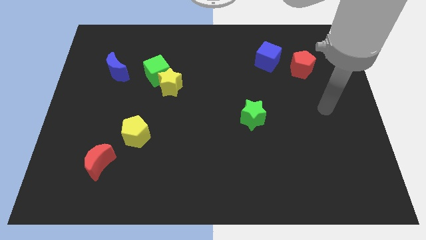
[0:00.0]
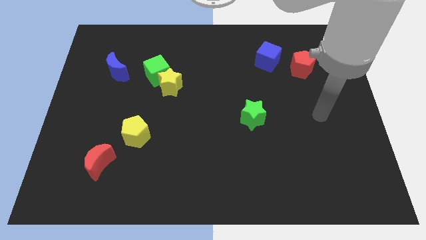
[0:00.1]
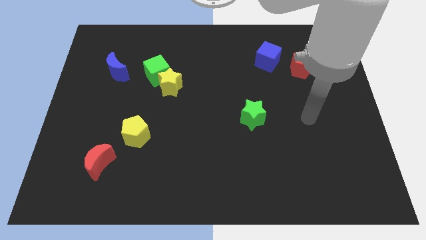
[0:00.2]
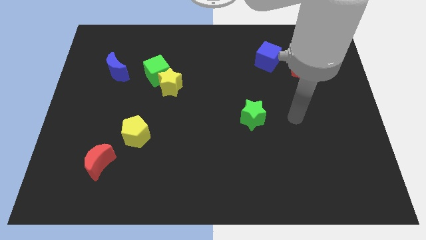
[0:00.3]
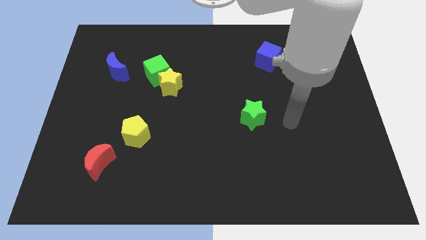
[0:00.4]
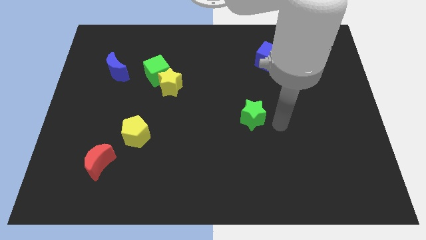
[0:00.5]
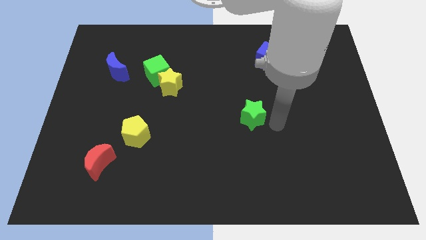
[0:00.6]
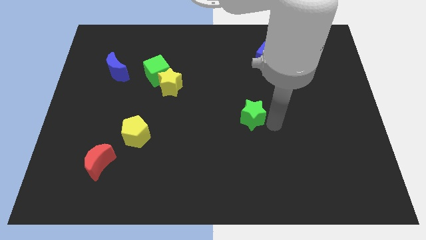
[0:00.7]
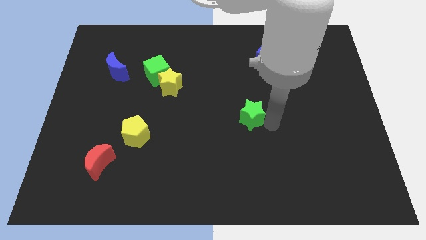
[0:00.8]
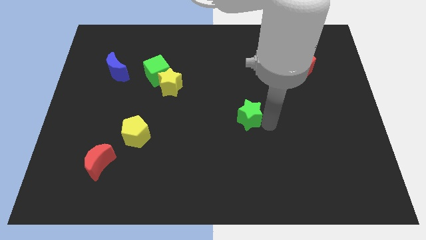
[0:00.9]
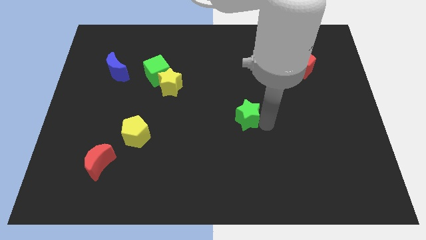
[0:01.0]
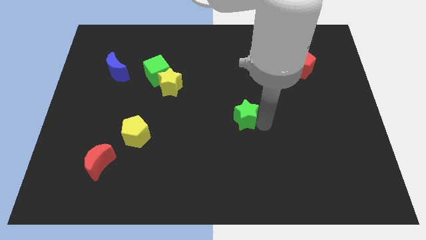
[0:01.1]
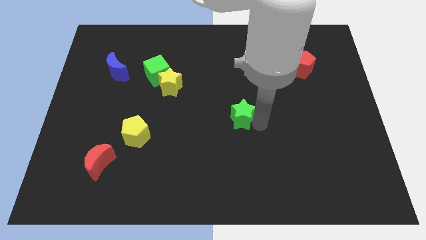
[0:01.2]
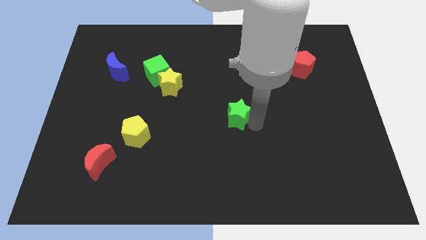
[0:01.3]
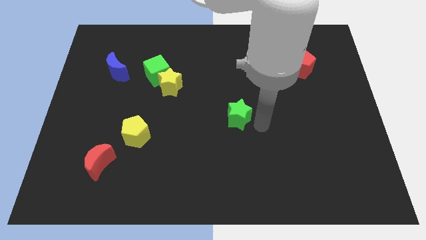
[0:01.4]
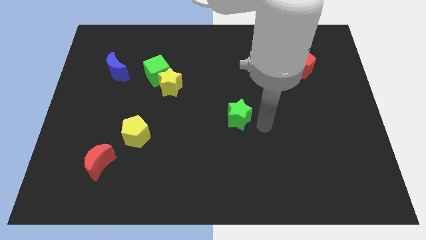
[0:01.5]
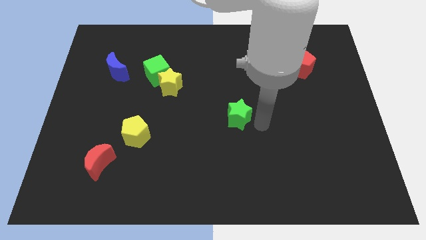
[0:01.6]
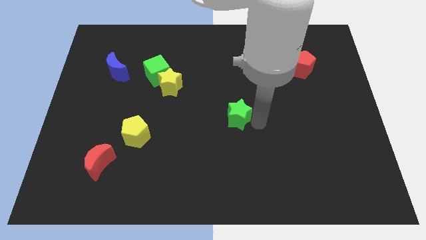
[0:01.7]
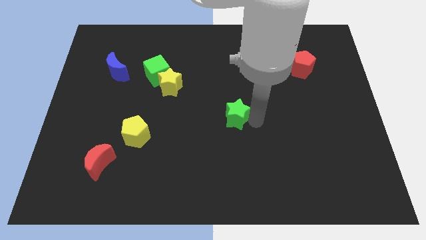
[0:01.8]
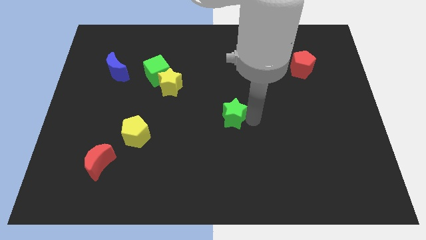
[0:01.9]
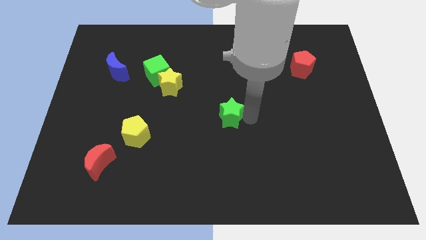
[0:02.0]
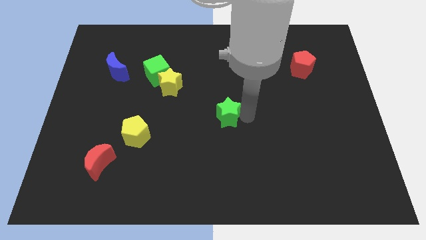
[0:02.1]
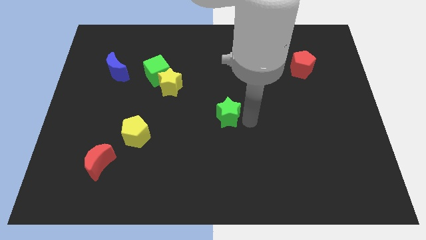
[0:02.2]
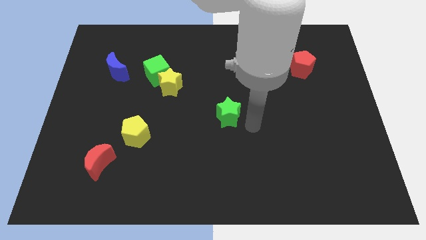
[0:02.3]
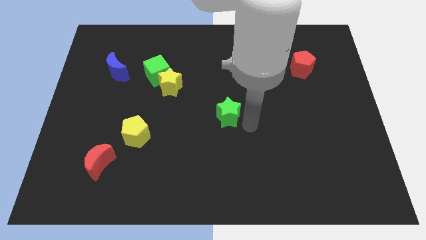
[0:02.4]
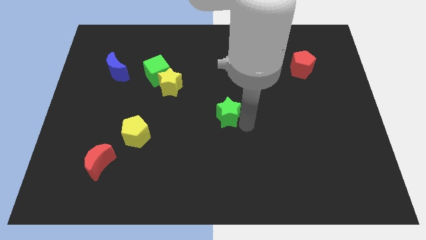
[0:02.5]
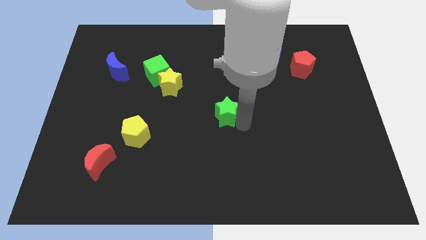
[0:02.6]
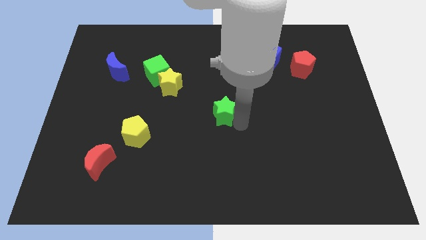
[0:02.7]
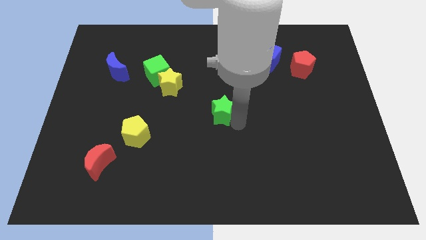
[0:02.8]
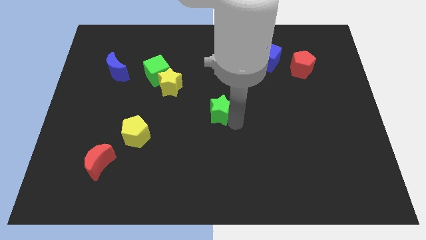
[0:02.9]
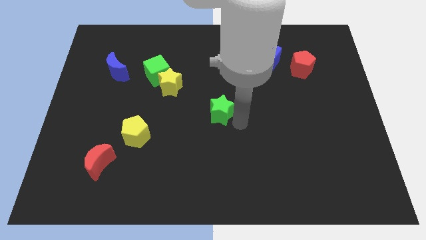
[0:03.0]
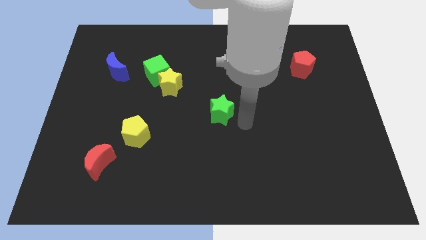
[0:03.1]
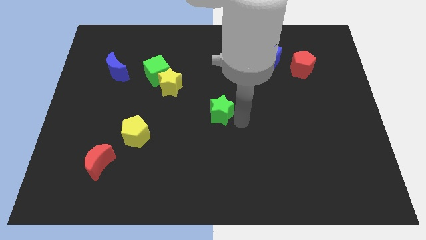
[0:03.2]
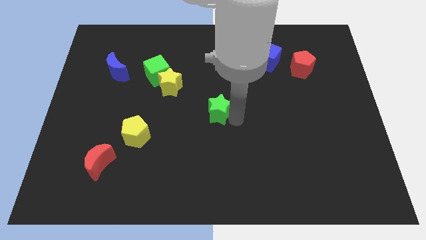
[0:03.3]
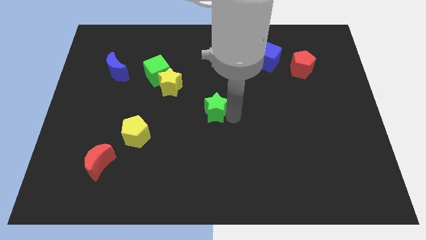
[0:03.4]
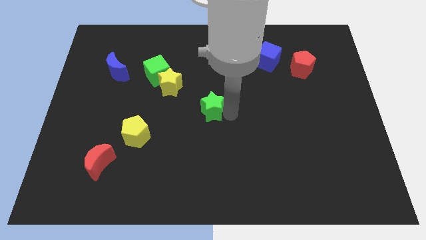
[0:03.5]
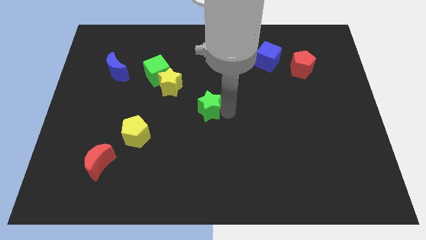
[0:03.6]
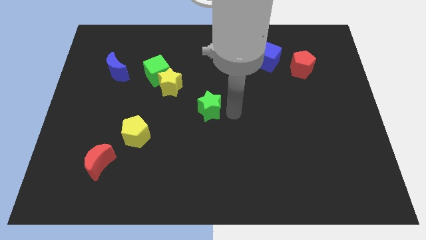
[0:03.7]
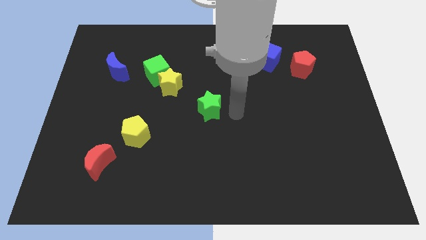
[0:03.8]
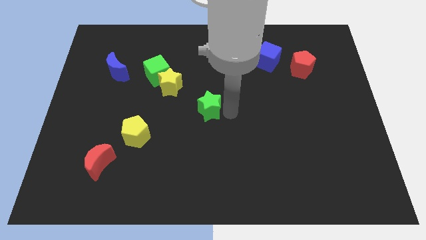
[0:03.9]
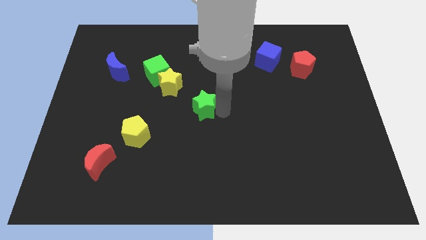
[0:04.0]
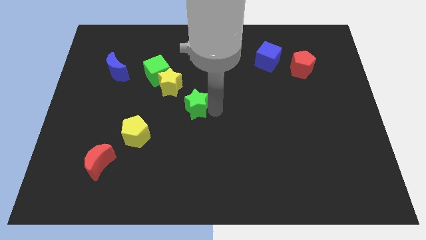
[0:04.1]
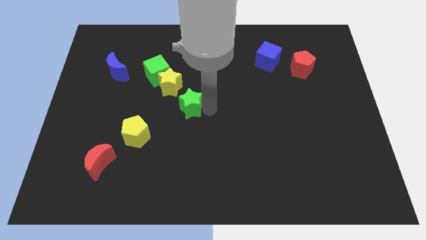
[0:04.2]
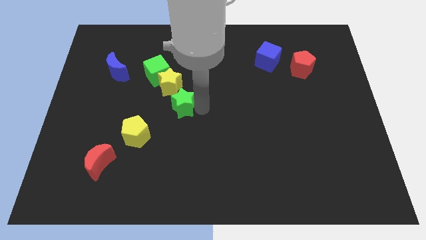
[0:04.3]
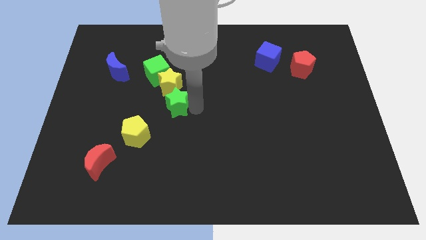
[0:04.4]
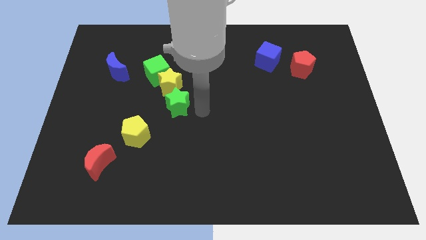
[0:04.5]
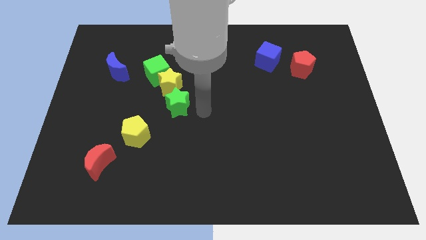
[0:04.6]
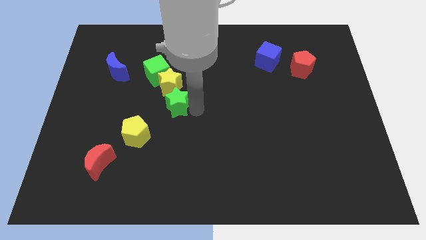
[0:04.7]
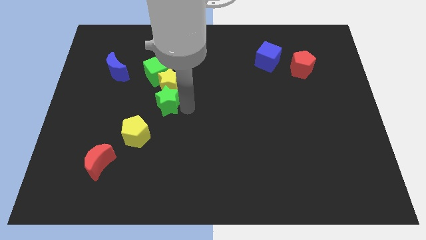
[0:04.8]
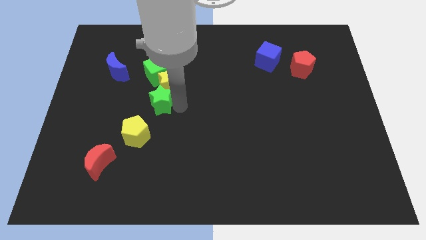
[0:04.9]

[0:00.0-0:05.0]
slide the green star to the top side of the yellow pentagon

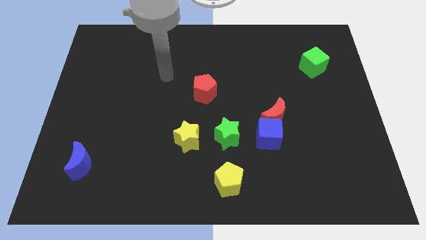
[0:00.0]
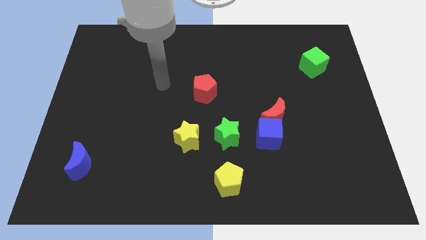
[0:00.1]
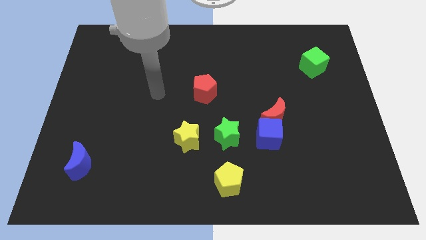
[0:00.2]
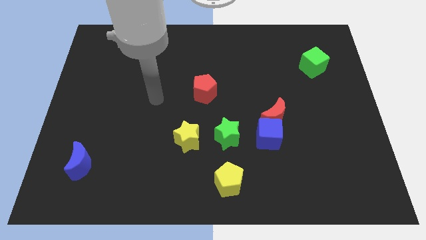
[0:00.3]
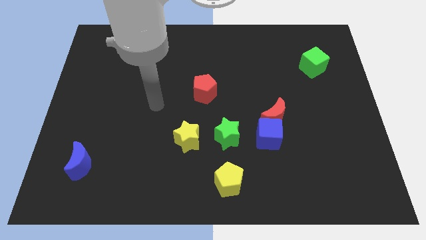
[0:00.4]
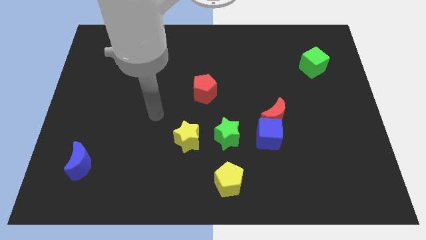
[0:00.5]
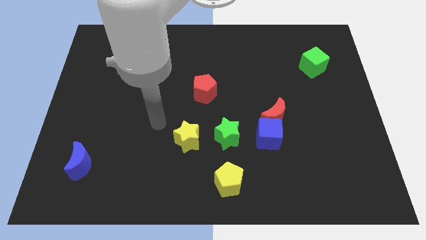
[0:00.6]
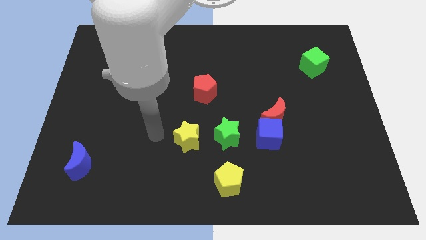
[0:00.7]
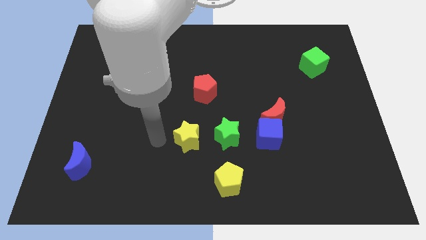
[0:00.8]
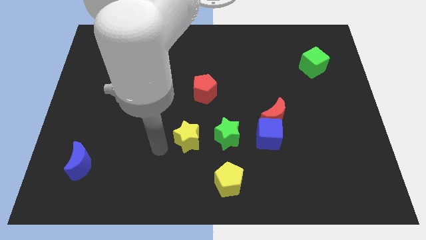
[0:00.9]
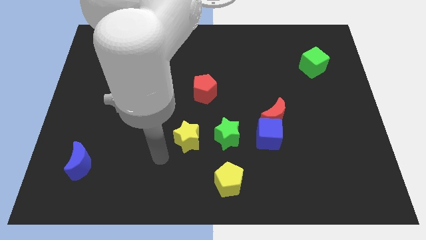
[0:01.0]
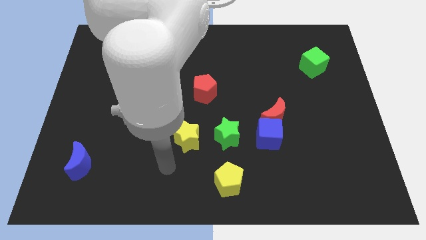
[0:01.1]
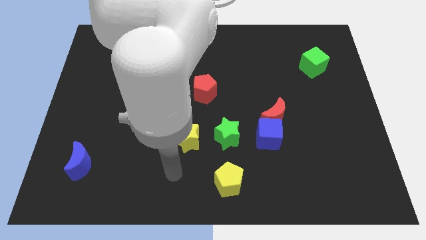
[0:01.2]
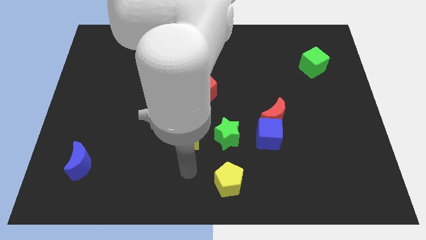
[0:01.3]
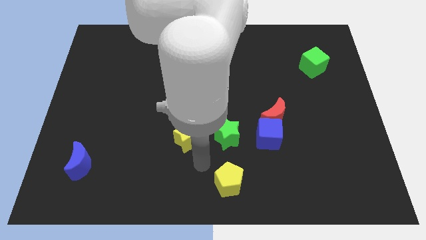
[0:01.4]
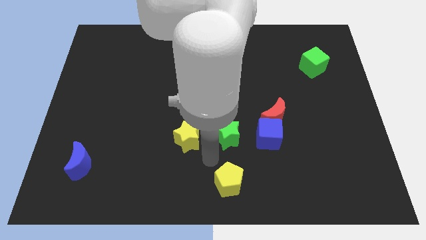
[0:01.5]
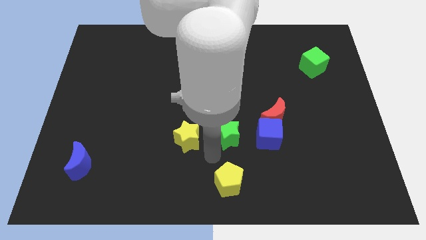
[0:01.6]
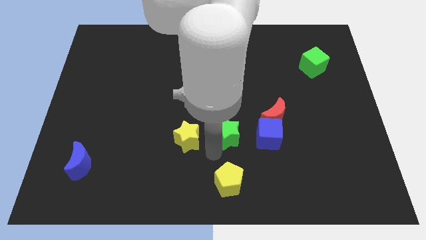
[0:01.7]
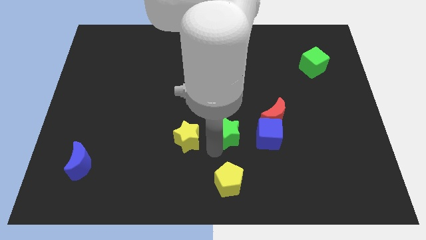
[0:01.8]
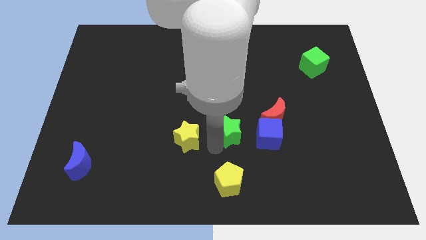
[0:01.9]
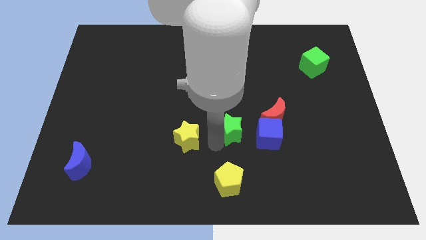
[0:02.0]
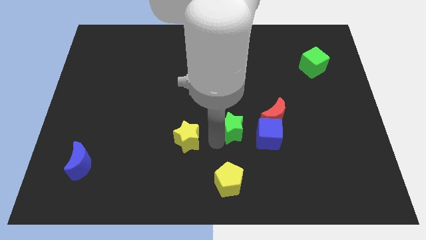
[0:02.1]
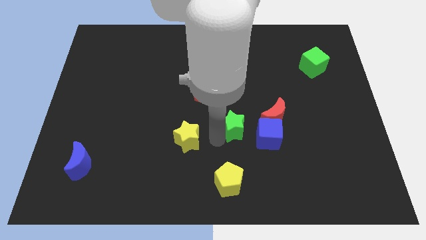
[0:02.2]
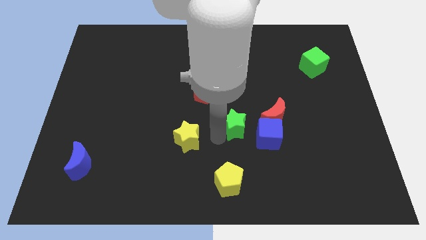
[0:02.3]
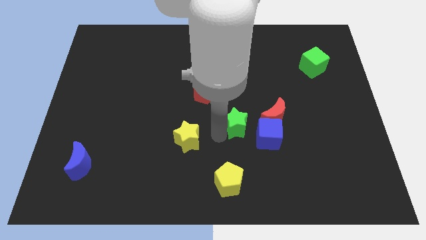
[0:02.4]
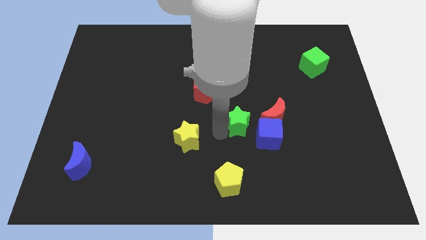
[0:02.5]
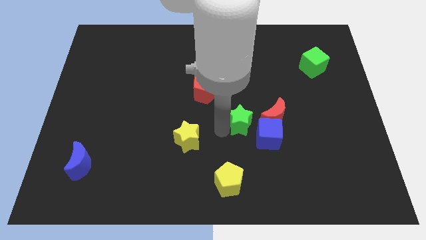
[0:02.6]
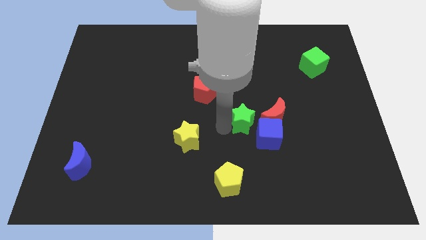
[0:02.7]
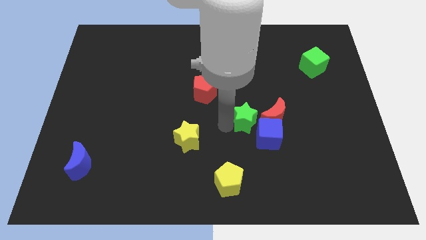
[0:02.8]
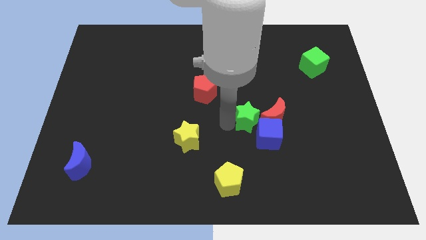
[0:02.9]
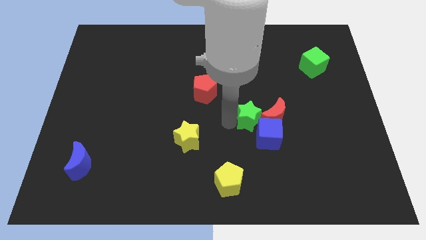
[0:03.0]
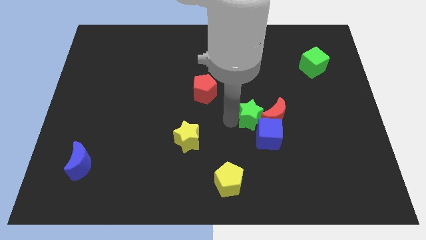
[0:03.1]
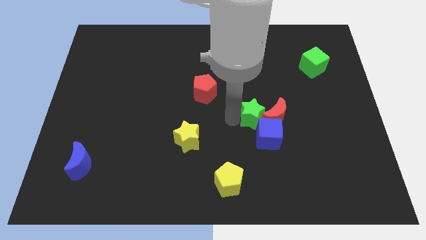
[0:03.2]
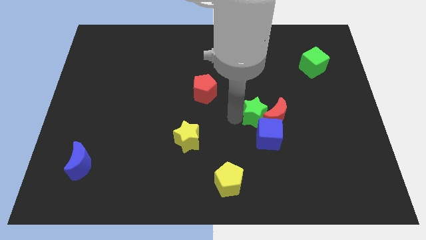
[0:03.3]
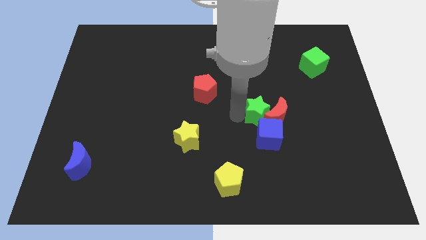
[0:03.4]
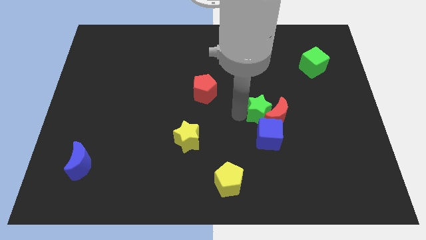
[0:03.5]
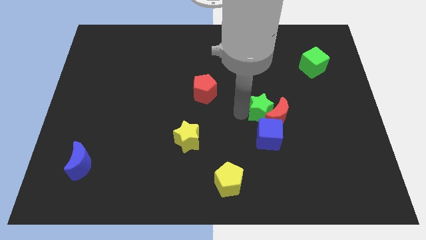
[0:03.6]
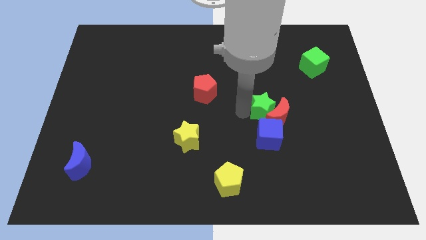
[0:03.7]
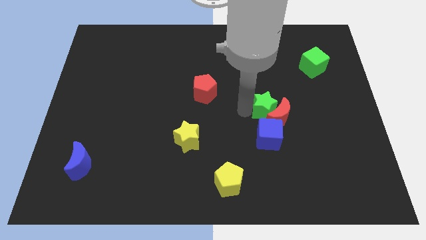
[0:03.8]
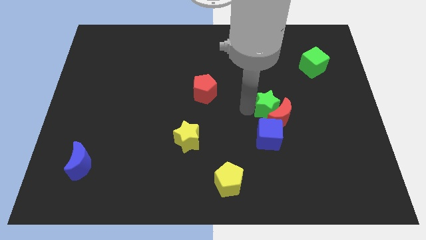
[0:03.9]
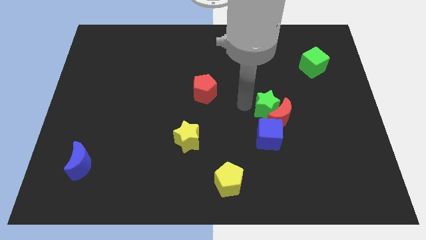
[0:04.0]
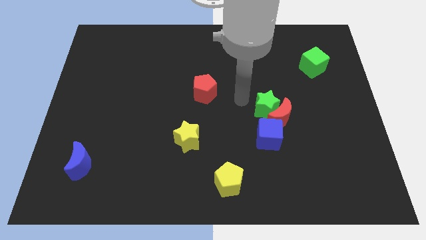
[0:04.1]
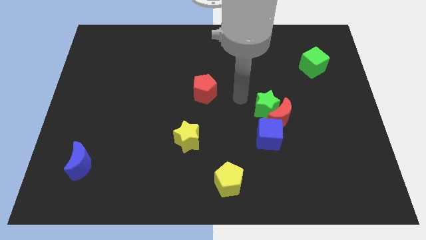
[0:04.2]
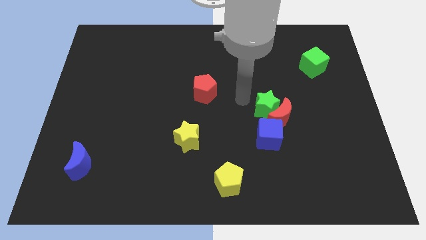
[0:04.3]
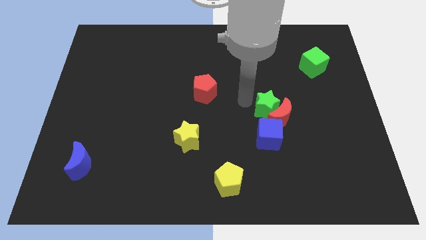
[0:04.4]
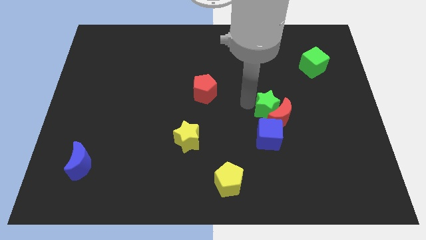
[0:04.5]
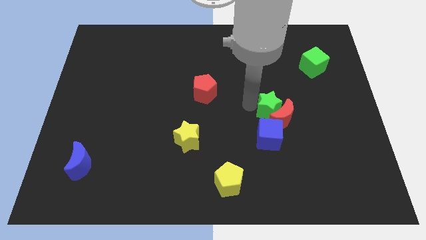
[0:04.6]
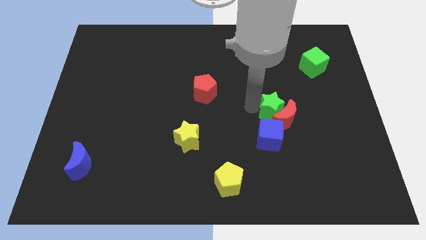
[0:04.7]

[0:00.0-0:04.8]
move the green star to the top right of the blue cube
